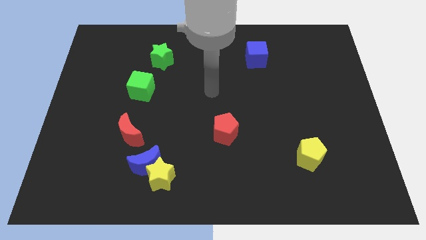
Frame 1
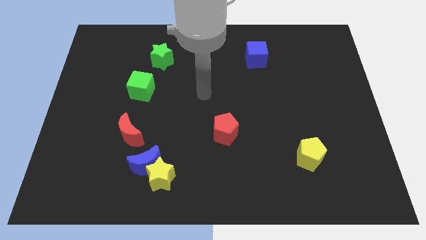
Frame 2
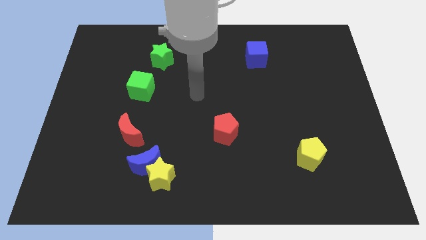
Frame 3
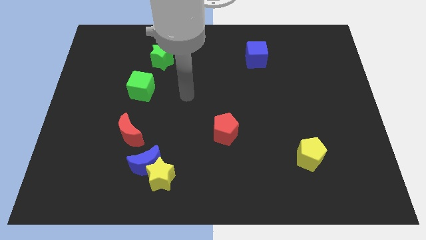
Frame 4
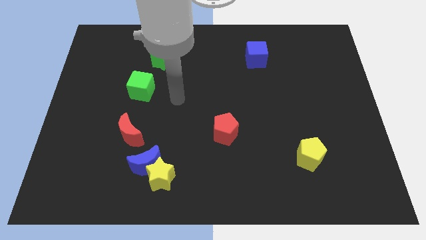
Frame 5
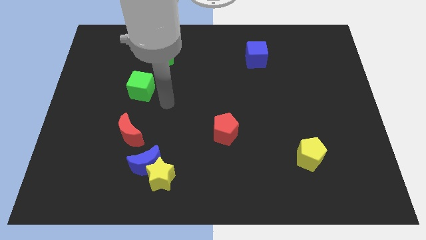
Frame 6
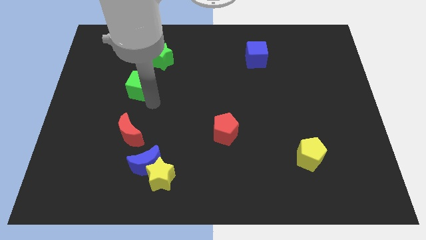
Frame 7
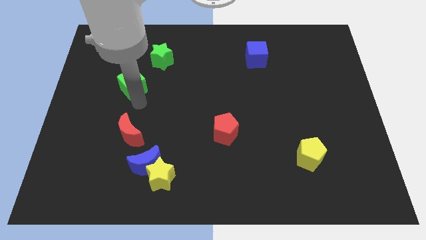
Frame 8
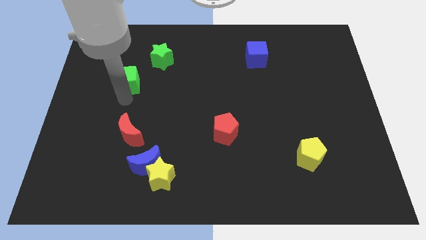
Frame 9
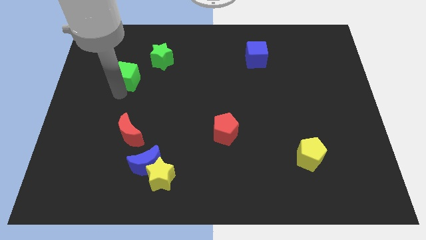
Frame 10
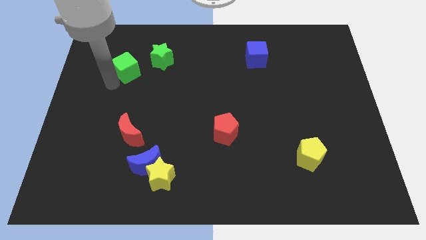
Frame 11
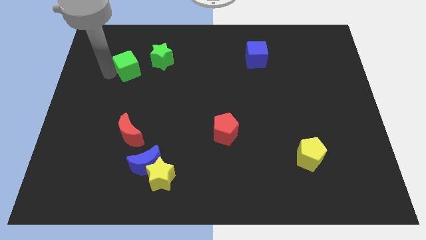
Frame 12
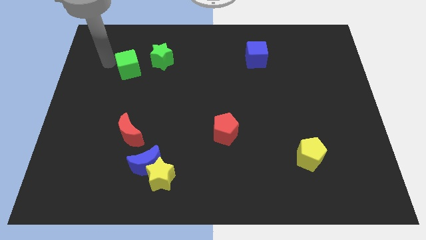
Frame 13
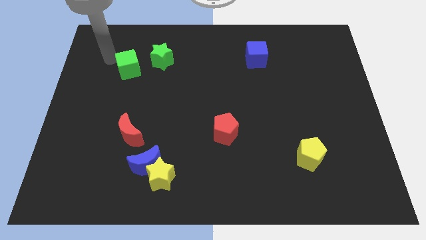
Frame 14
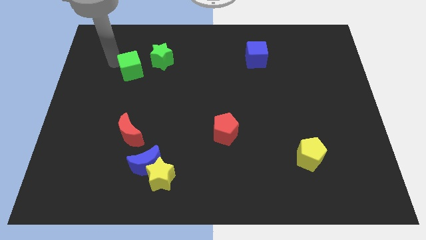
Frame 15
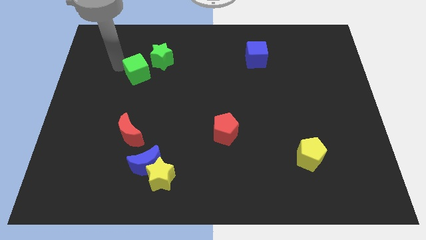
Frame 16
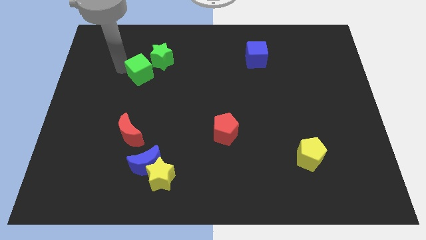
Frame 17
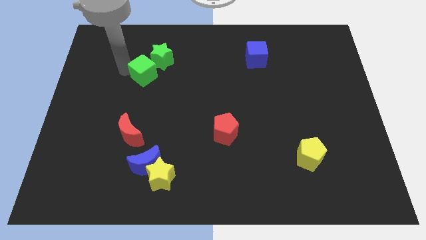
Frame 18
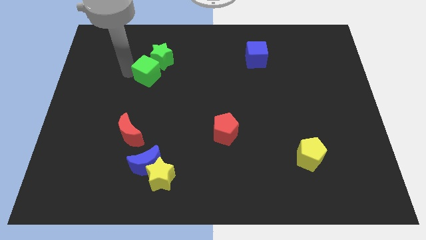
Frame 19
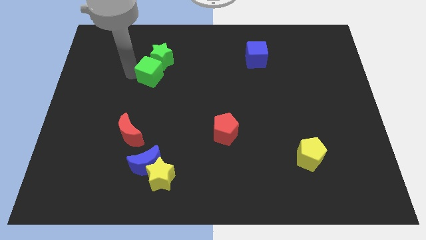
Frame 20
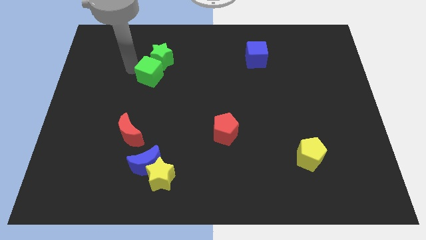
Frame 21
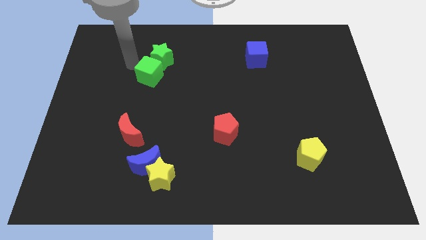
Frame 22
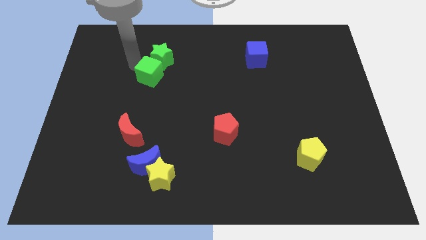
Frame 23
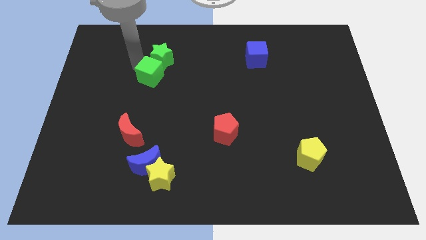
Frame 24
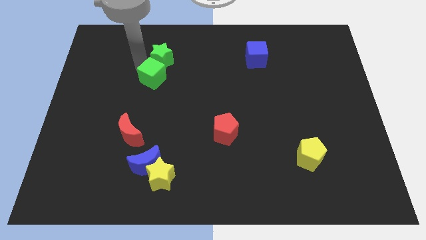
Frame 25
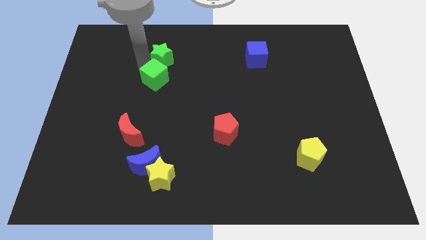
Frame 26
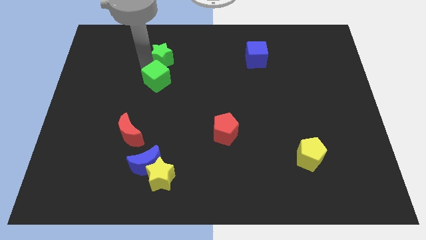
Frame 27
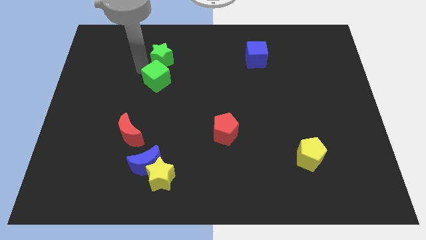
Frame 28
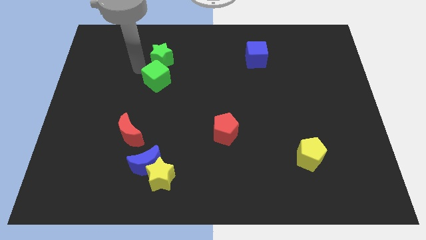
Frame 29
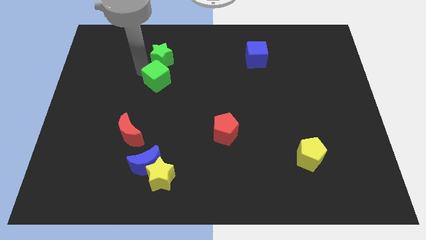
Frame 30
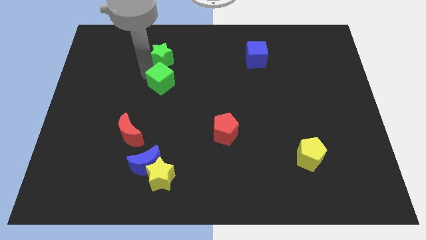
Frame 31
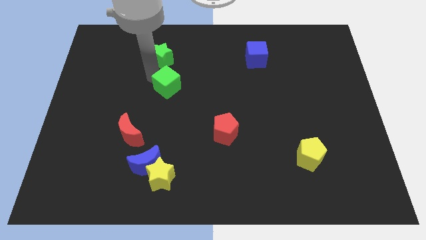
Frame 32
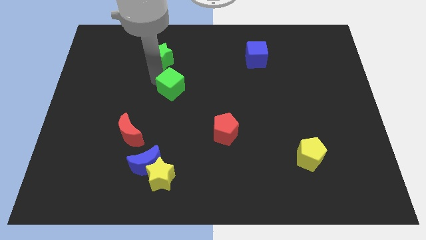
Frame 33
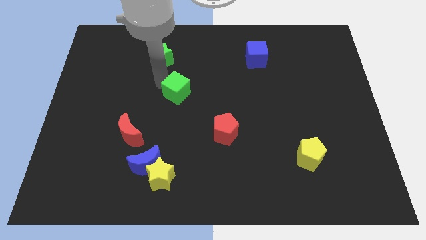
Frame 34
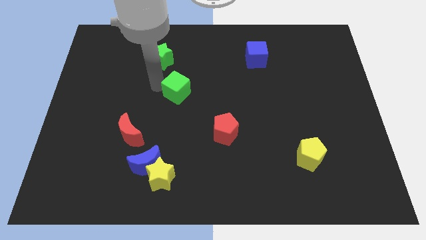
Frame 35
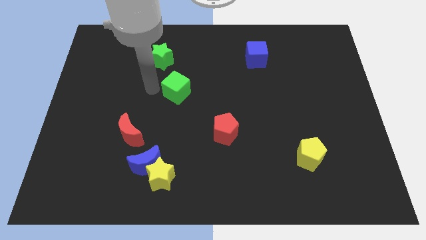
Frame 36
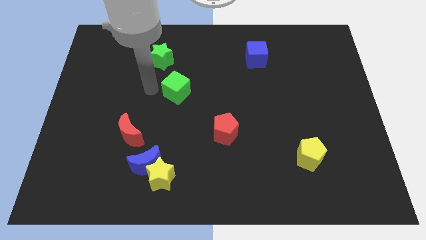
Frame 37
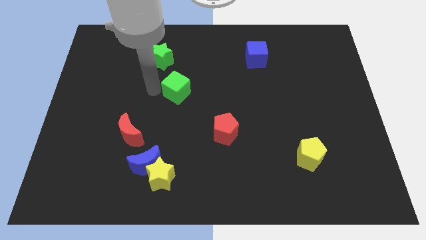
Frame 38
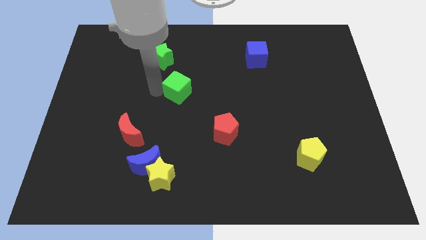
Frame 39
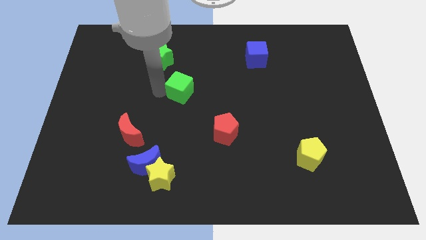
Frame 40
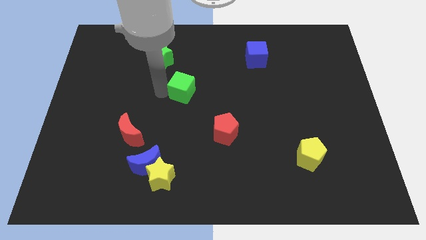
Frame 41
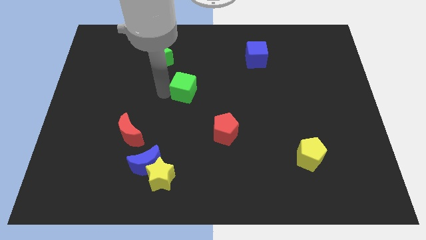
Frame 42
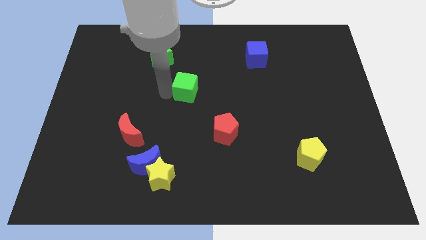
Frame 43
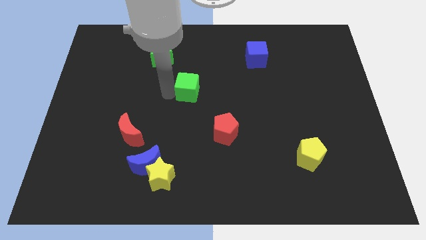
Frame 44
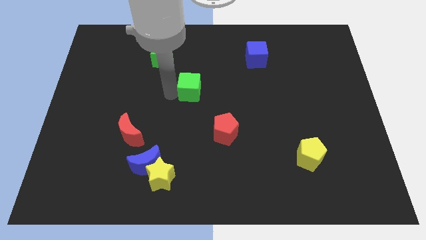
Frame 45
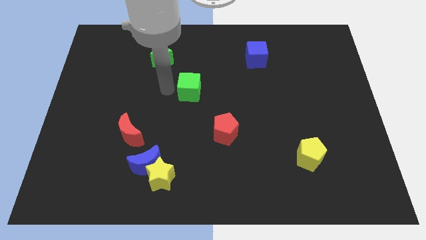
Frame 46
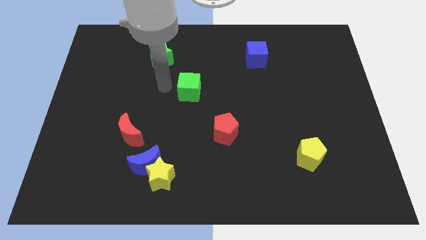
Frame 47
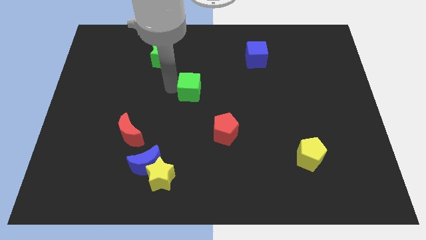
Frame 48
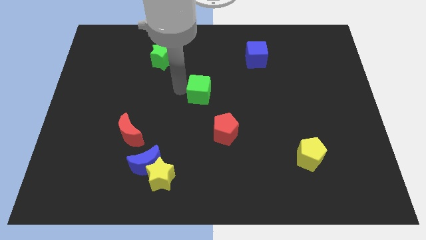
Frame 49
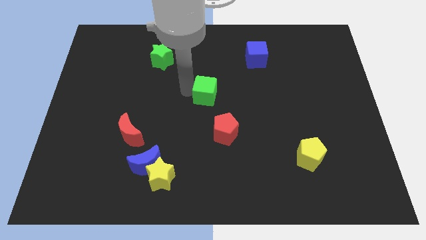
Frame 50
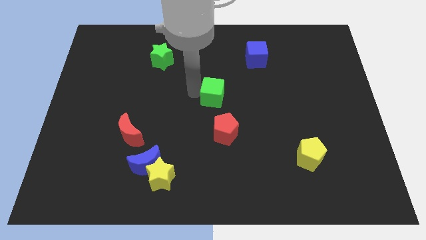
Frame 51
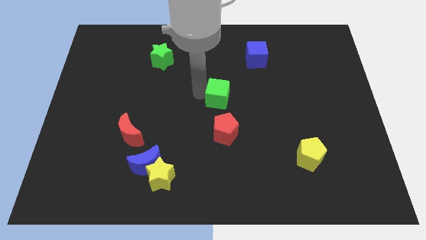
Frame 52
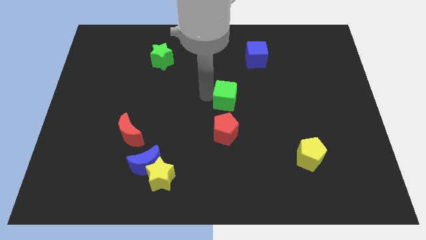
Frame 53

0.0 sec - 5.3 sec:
slide the green cube right

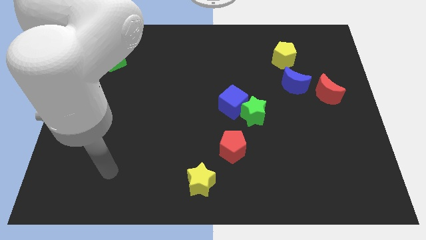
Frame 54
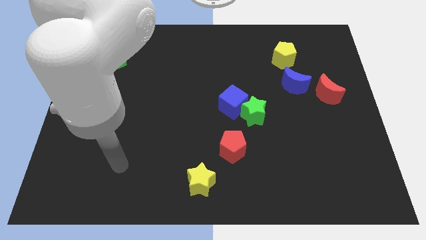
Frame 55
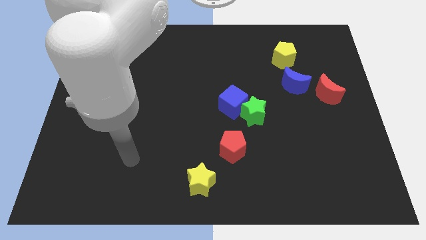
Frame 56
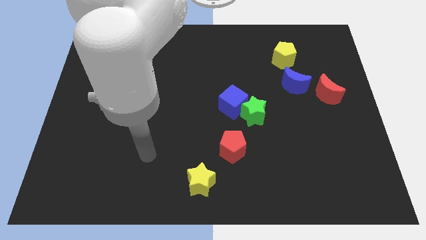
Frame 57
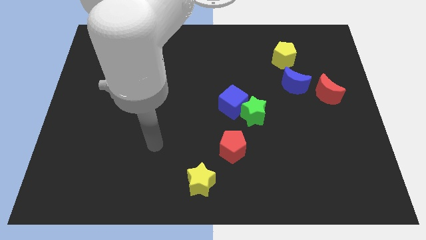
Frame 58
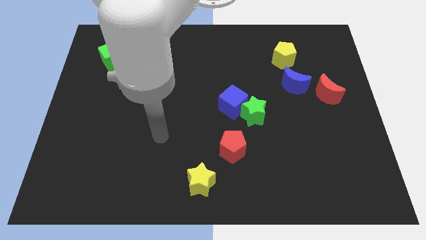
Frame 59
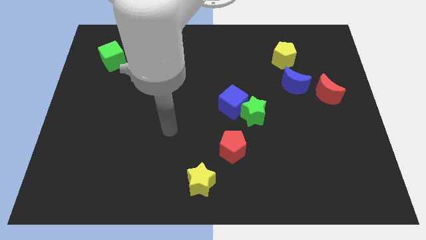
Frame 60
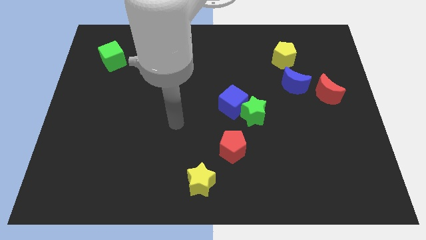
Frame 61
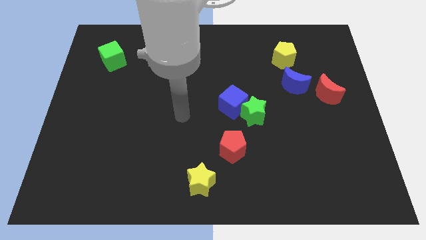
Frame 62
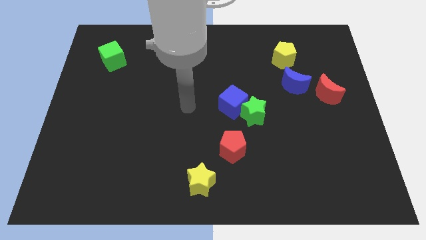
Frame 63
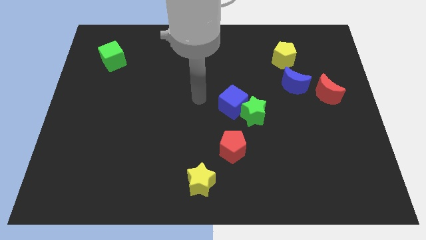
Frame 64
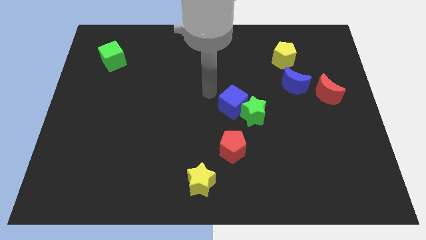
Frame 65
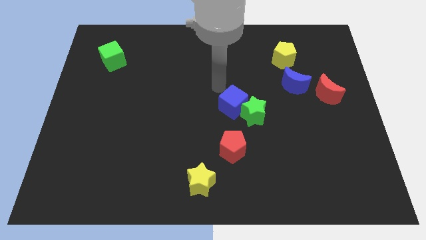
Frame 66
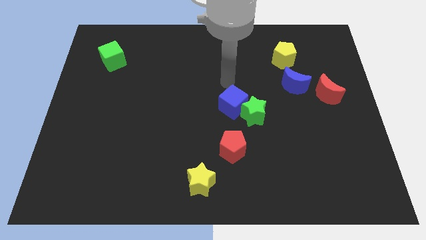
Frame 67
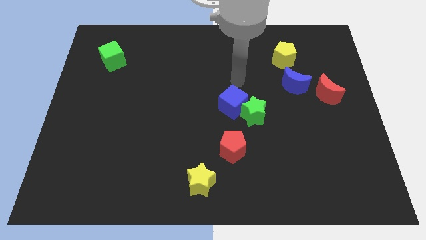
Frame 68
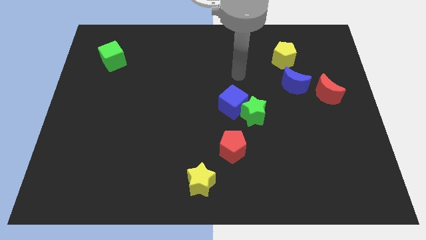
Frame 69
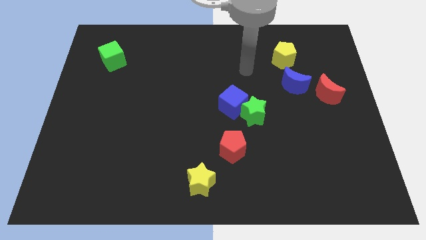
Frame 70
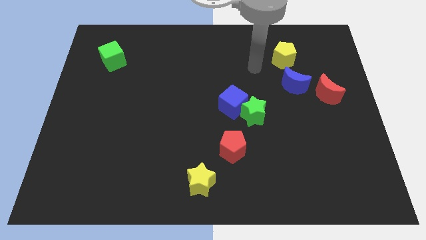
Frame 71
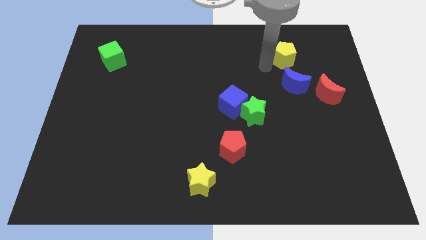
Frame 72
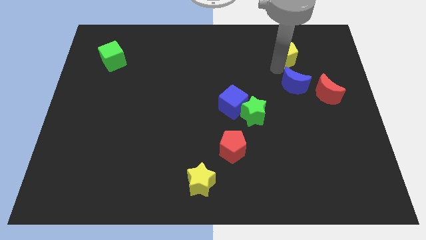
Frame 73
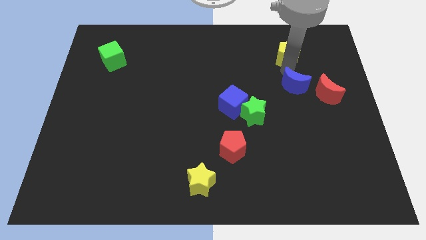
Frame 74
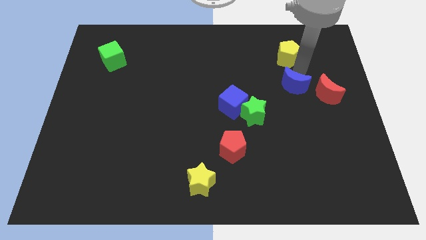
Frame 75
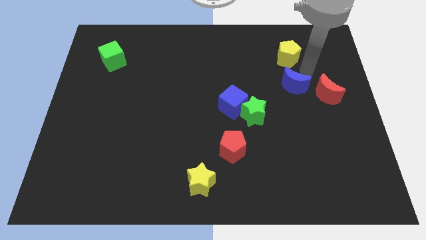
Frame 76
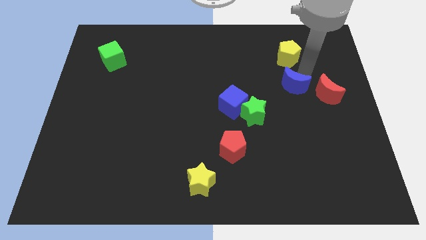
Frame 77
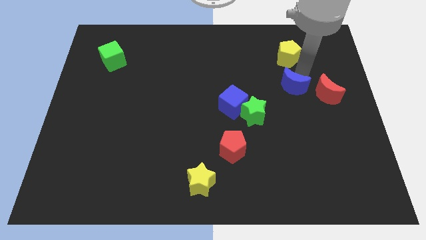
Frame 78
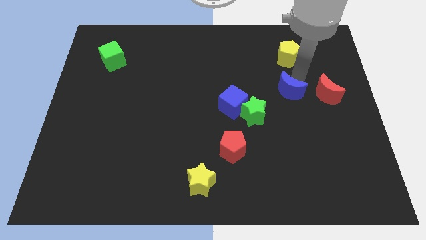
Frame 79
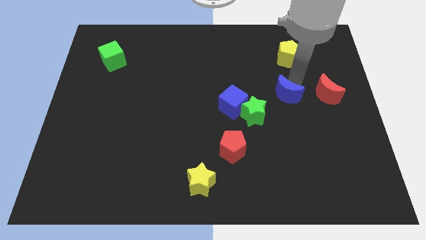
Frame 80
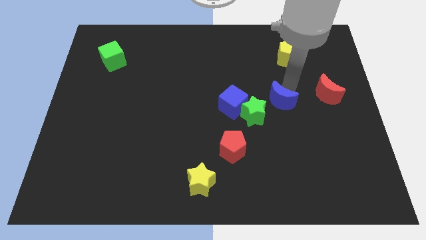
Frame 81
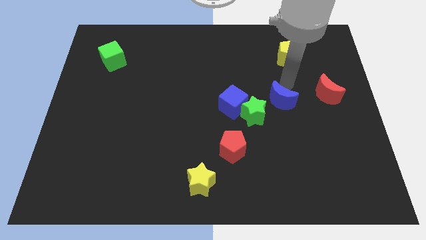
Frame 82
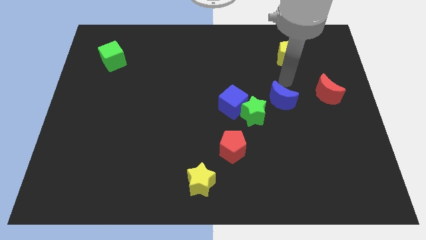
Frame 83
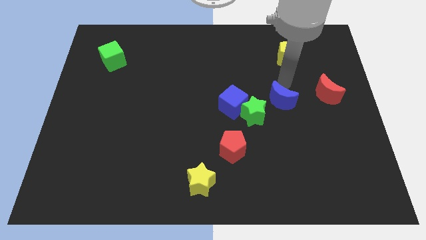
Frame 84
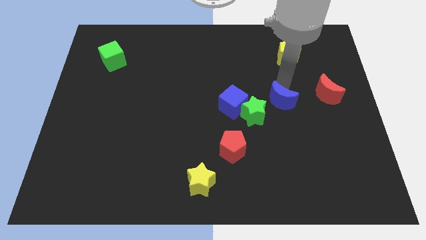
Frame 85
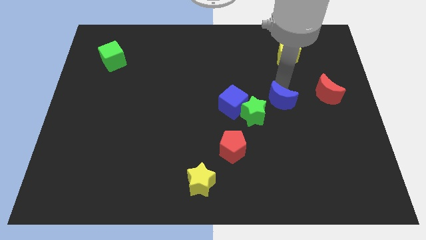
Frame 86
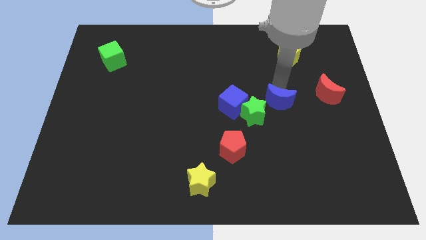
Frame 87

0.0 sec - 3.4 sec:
slightly push the blue moon down and left
